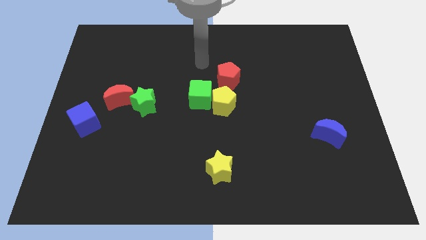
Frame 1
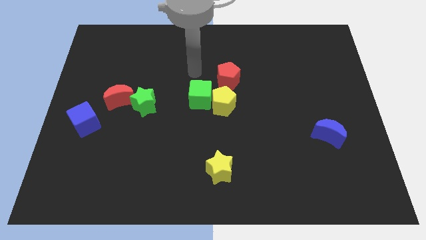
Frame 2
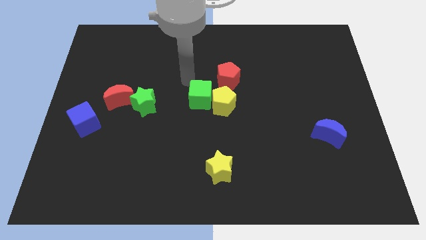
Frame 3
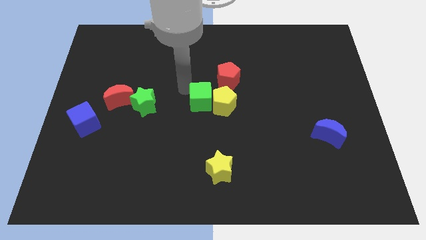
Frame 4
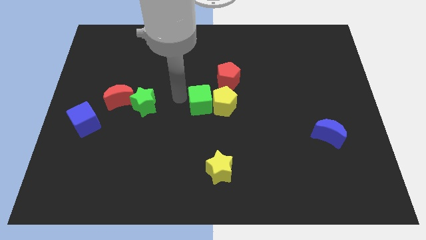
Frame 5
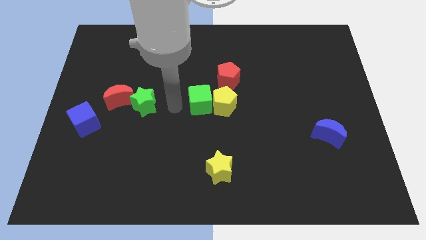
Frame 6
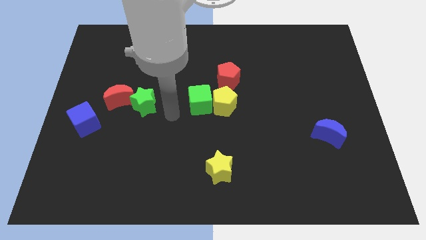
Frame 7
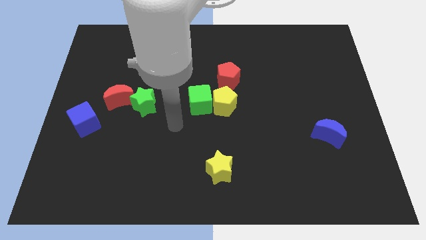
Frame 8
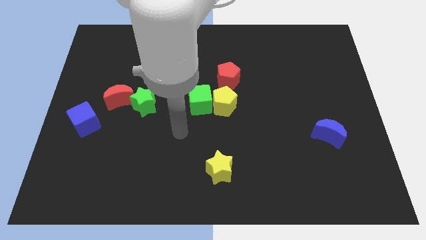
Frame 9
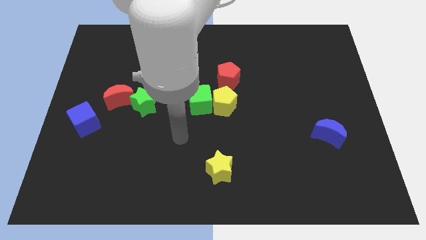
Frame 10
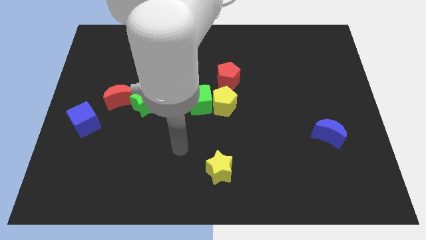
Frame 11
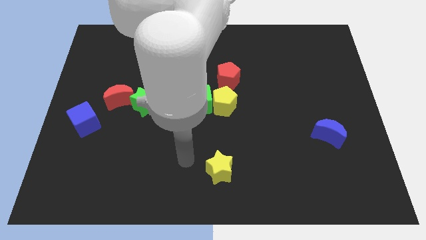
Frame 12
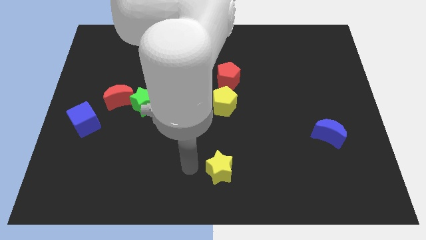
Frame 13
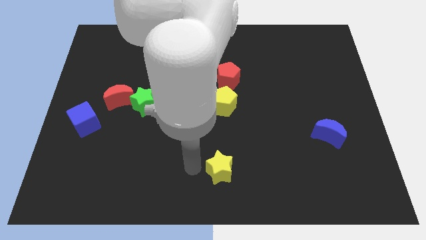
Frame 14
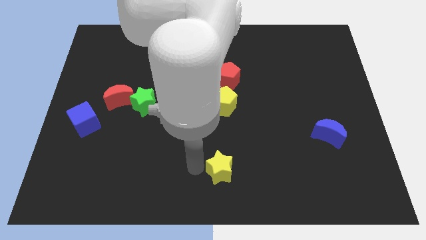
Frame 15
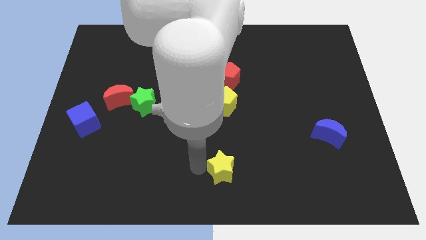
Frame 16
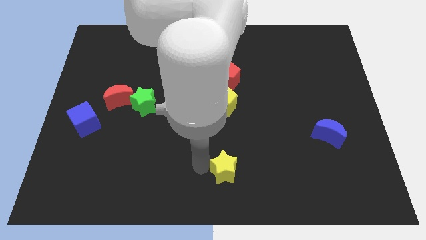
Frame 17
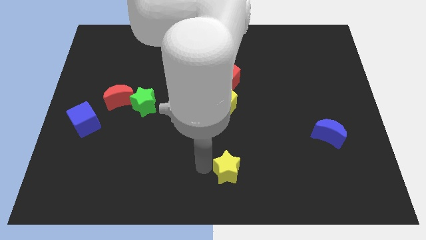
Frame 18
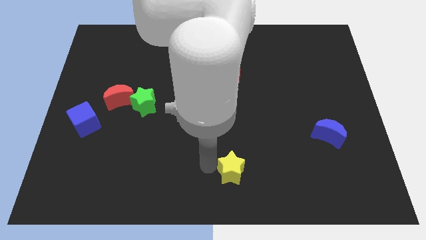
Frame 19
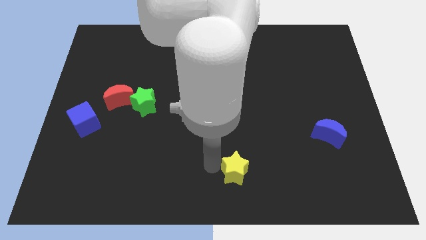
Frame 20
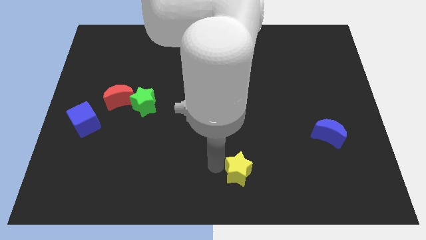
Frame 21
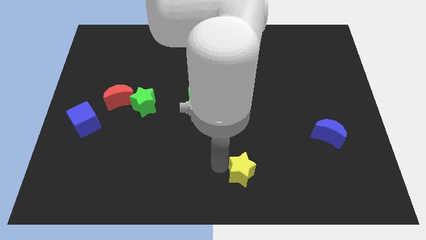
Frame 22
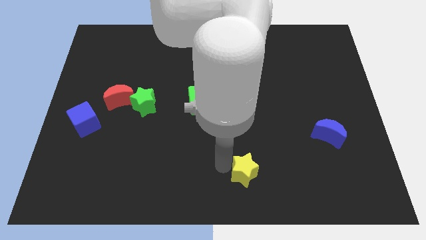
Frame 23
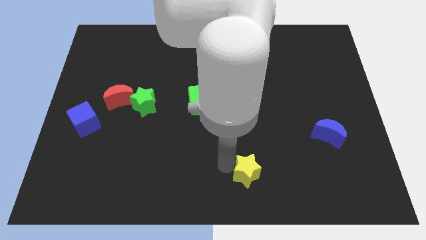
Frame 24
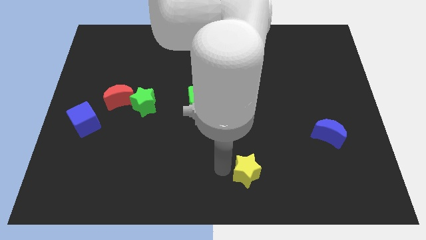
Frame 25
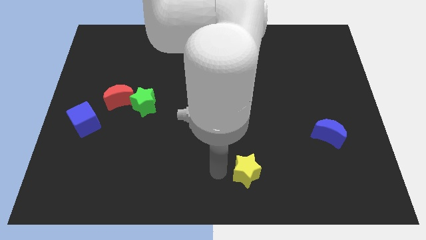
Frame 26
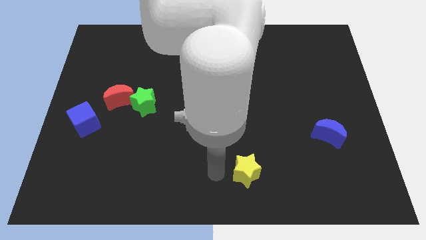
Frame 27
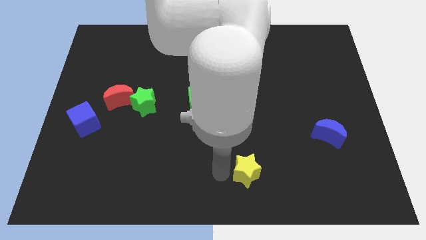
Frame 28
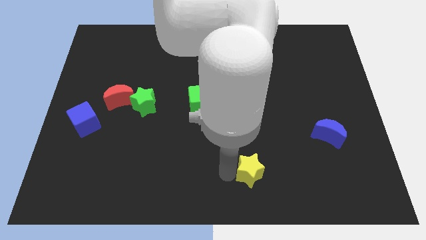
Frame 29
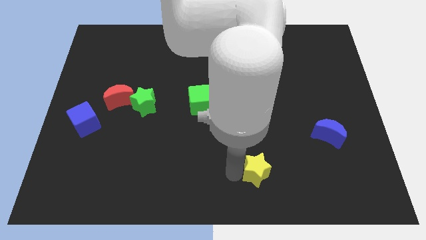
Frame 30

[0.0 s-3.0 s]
move the yellow star to the right a little

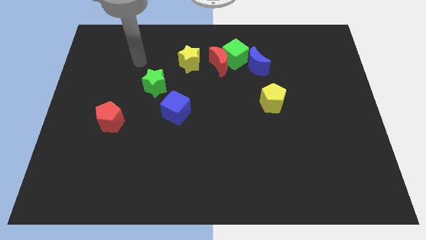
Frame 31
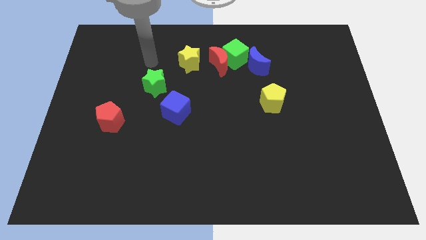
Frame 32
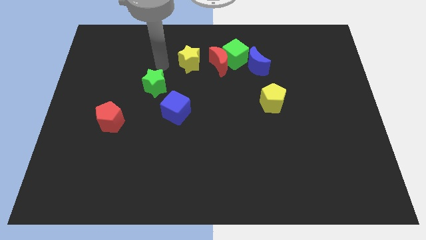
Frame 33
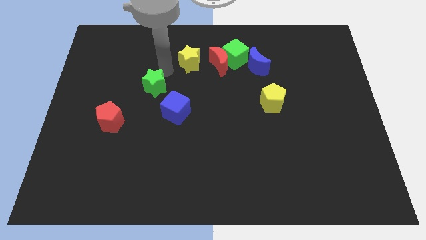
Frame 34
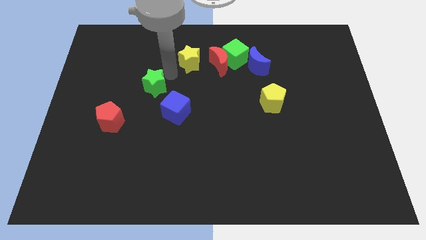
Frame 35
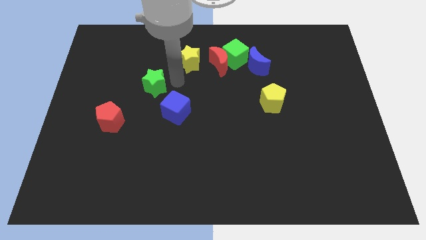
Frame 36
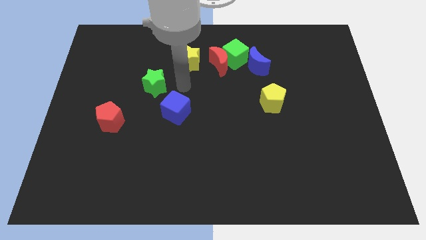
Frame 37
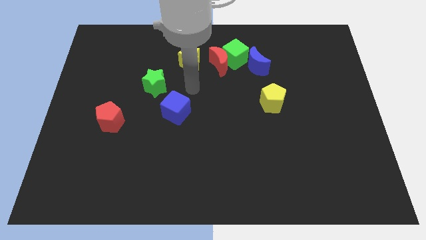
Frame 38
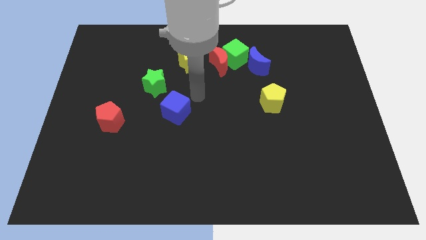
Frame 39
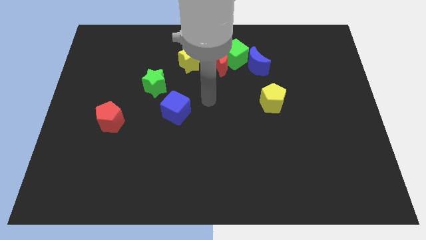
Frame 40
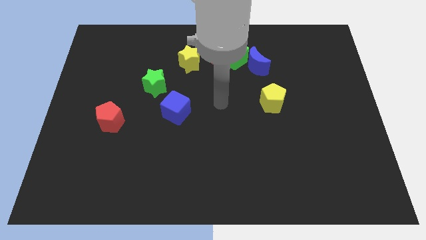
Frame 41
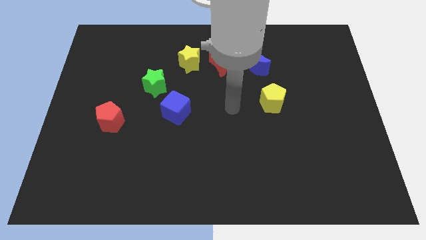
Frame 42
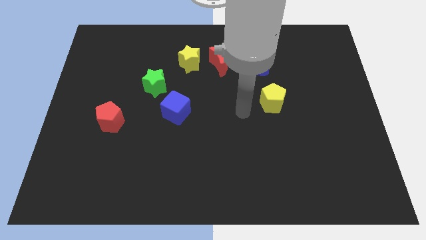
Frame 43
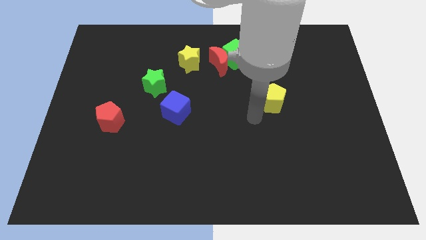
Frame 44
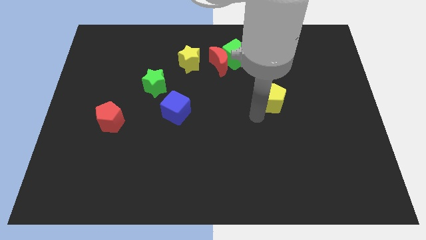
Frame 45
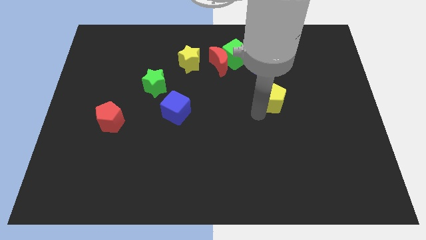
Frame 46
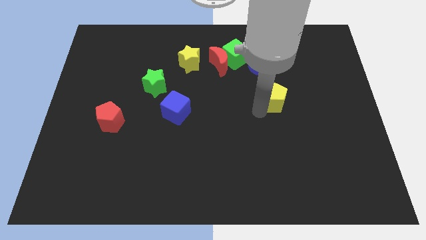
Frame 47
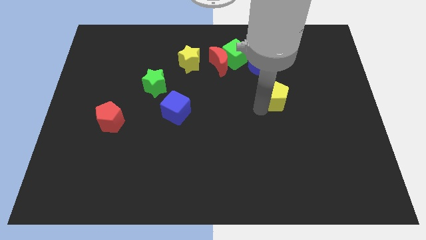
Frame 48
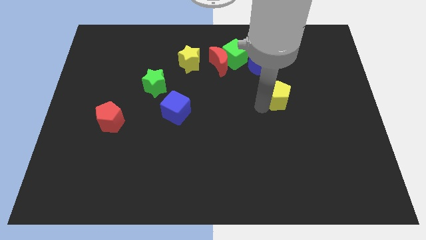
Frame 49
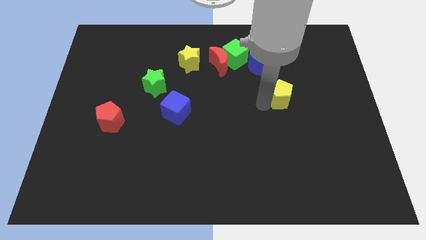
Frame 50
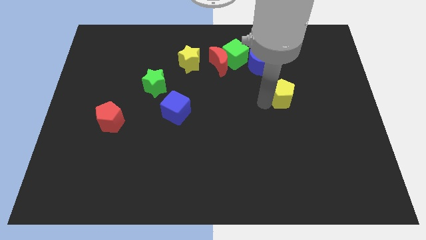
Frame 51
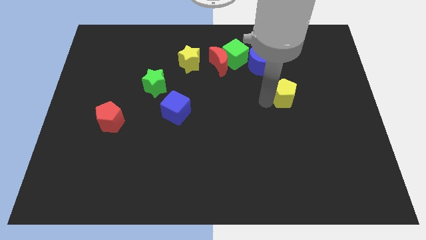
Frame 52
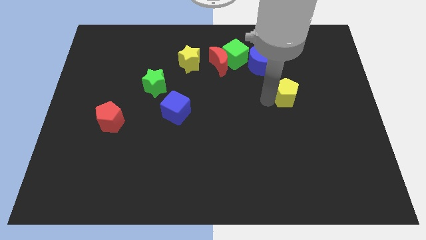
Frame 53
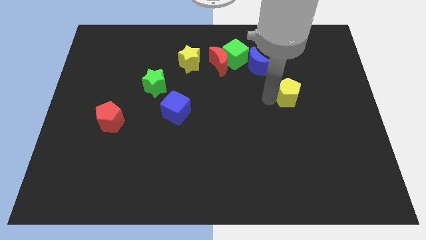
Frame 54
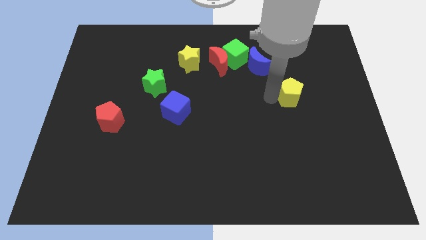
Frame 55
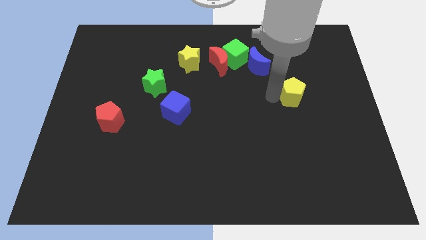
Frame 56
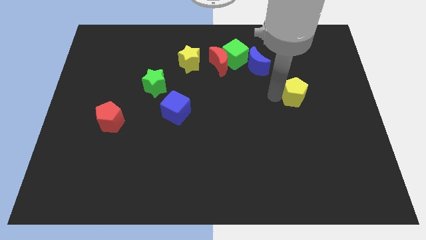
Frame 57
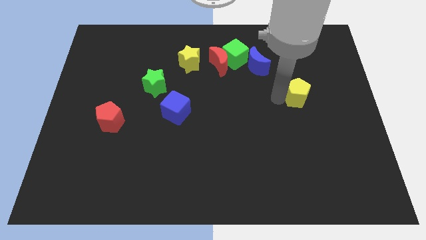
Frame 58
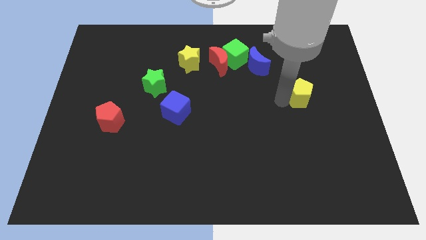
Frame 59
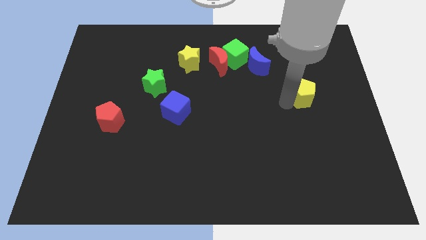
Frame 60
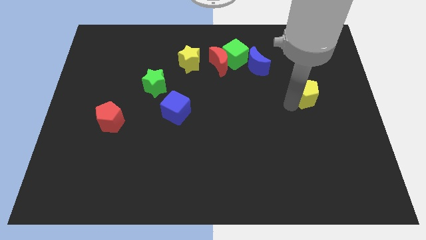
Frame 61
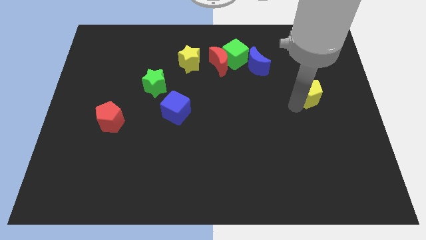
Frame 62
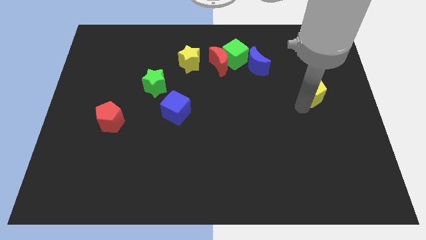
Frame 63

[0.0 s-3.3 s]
move the yellow pentagon upwards and right diagonally slightly

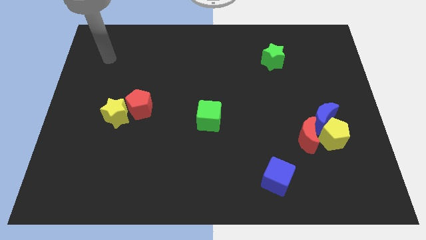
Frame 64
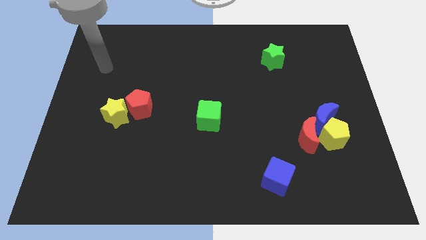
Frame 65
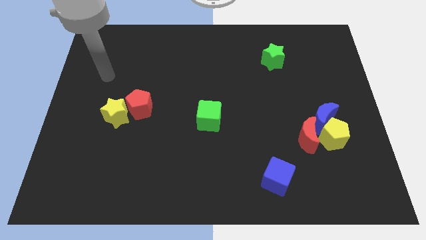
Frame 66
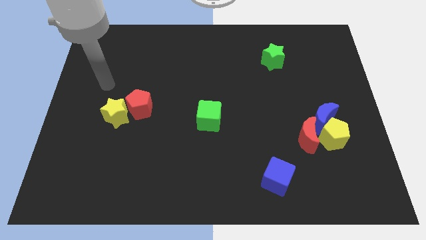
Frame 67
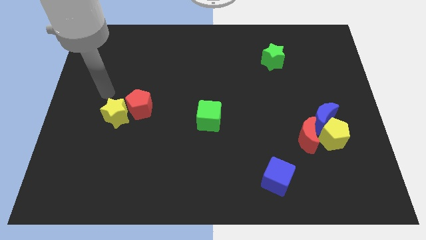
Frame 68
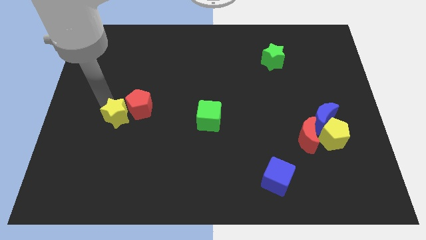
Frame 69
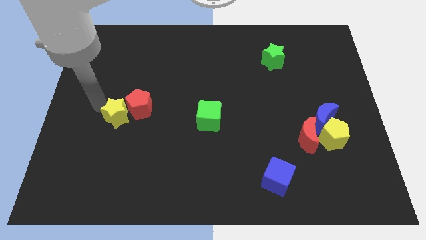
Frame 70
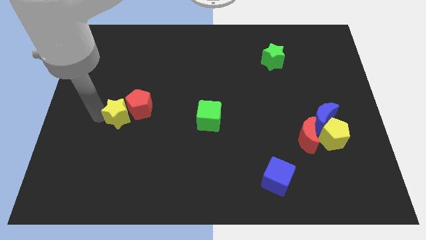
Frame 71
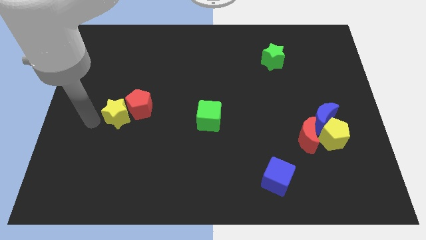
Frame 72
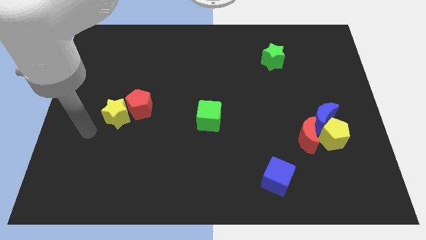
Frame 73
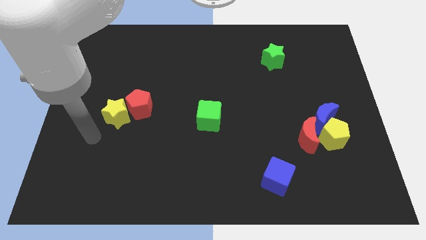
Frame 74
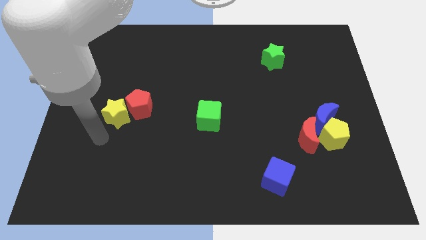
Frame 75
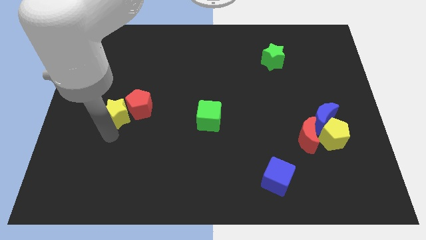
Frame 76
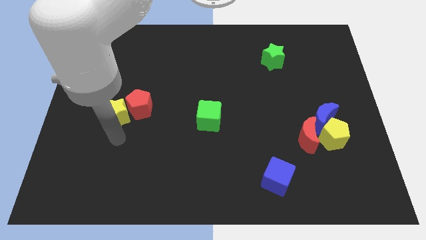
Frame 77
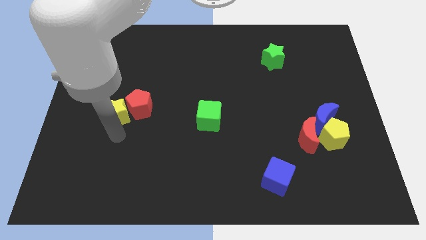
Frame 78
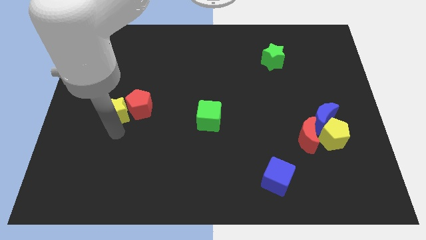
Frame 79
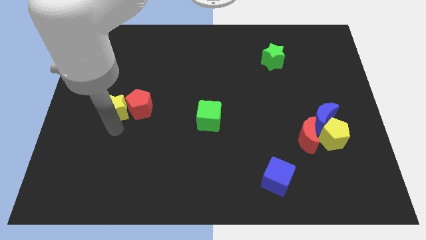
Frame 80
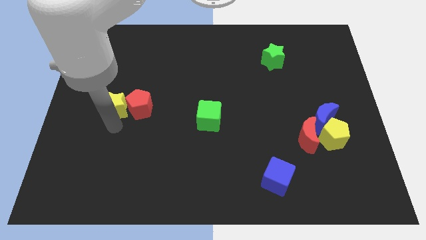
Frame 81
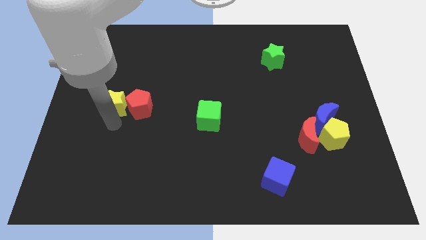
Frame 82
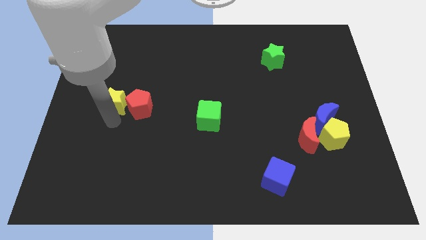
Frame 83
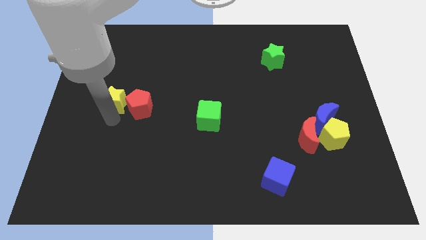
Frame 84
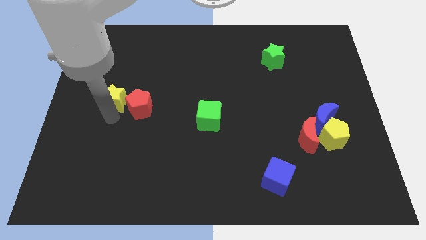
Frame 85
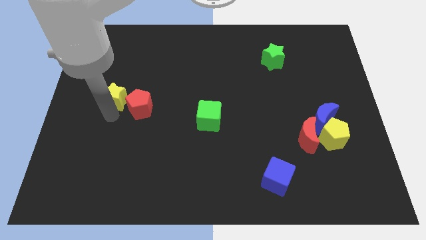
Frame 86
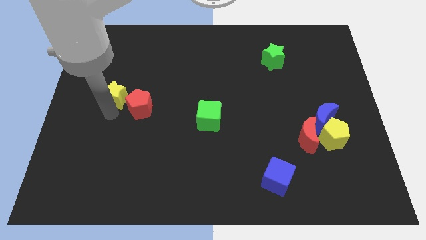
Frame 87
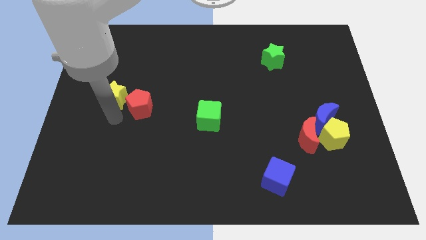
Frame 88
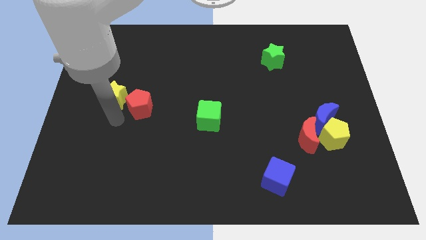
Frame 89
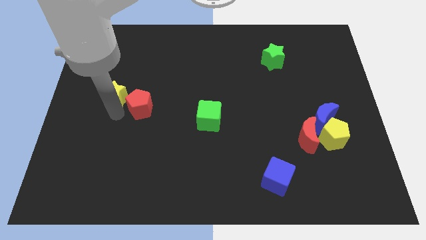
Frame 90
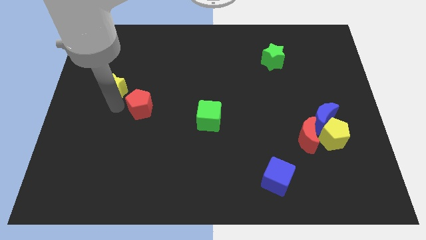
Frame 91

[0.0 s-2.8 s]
push the yellow star a little up
